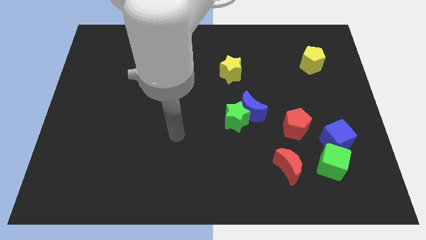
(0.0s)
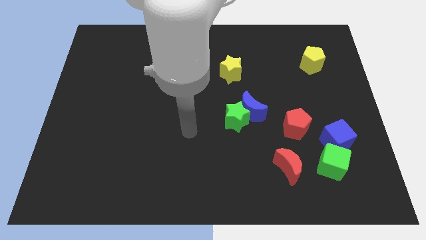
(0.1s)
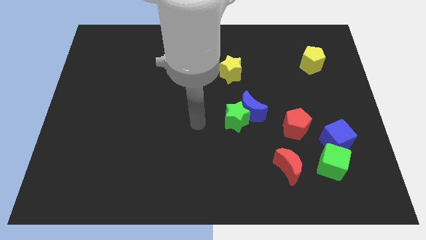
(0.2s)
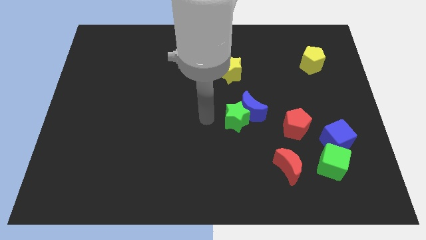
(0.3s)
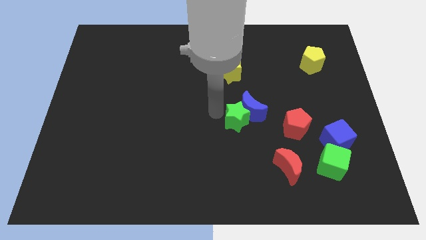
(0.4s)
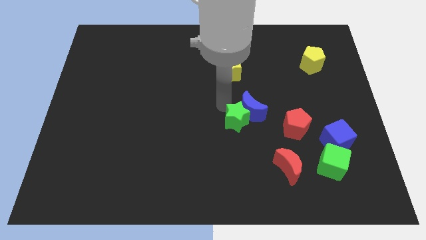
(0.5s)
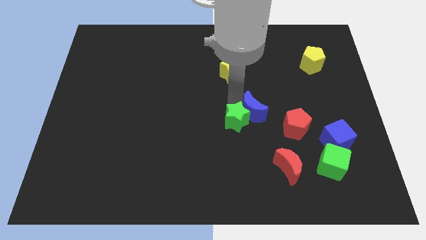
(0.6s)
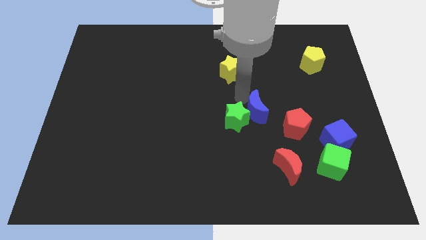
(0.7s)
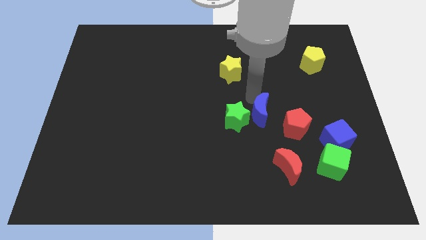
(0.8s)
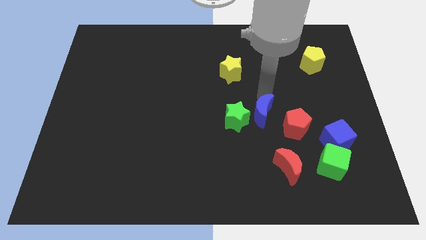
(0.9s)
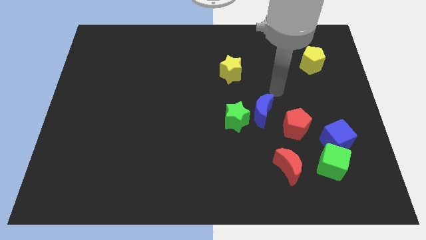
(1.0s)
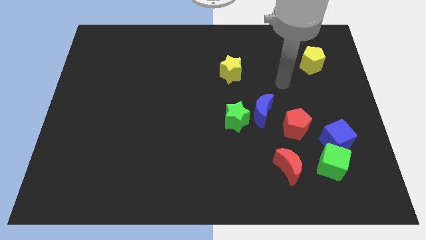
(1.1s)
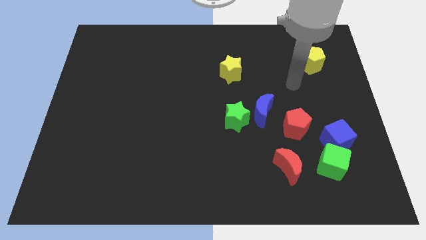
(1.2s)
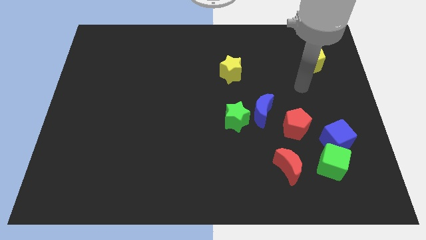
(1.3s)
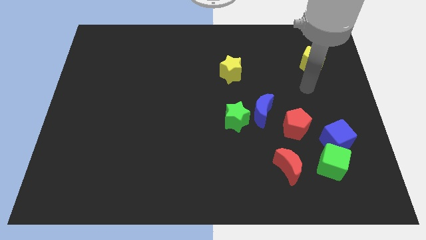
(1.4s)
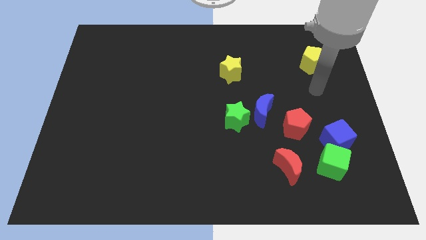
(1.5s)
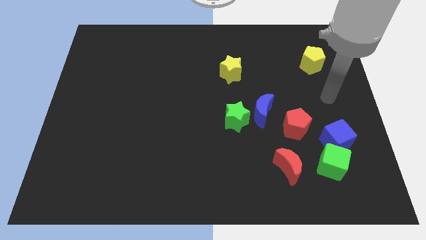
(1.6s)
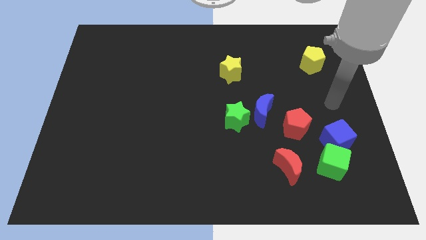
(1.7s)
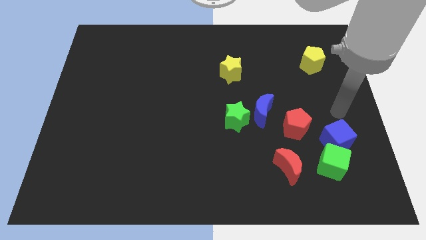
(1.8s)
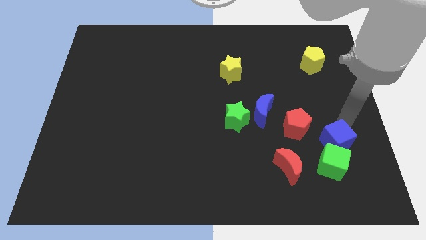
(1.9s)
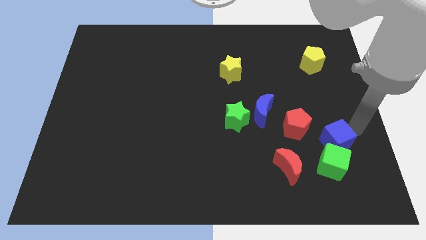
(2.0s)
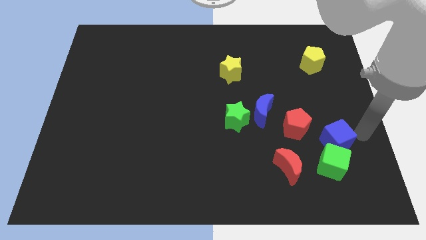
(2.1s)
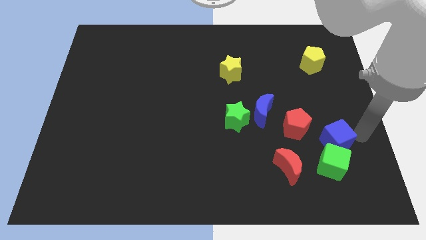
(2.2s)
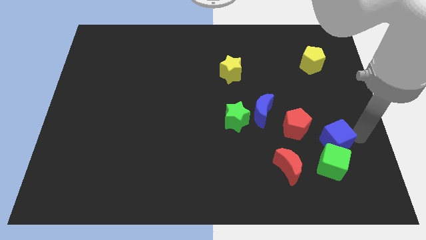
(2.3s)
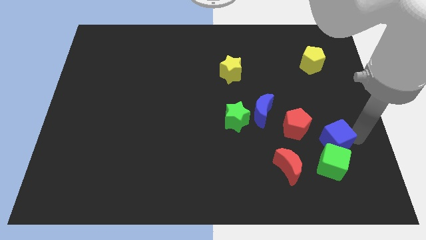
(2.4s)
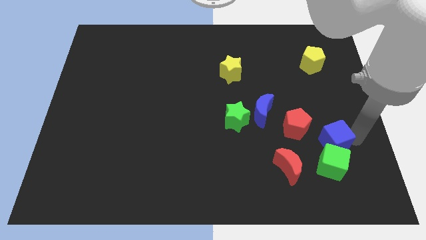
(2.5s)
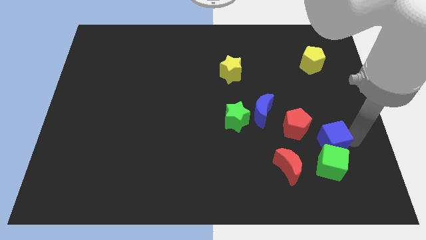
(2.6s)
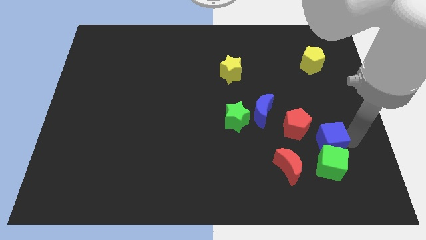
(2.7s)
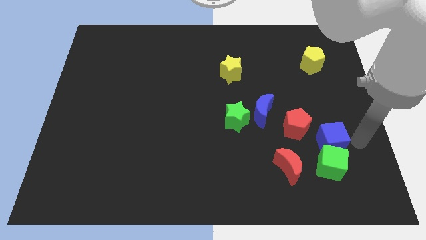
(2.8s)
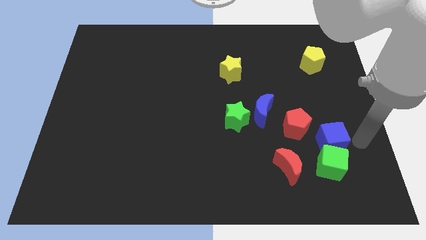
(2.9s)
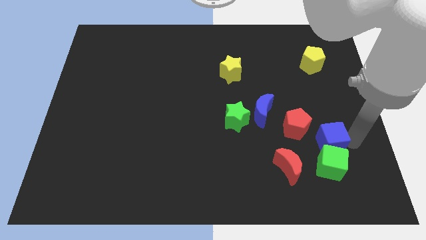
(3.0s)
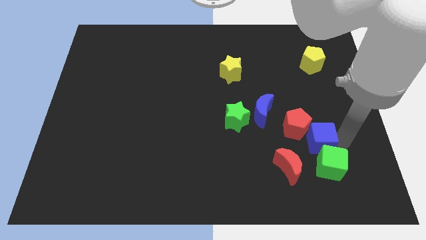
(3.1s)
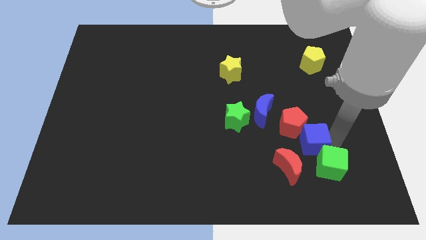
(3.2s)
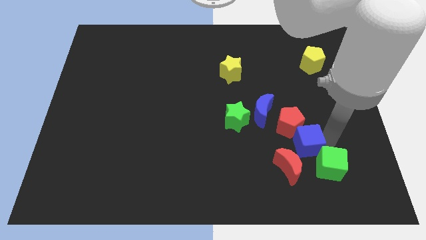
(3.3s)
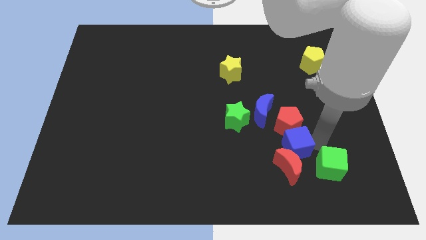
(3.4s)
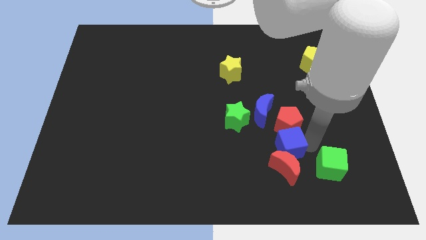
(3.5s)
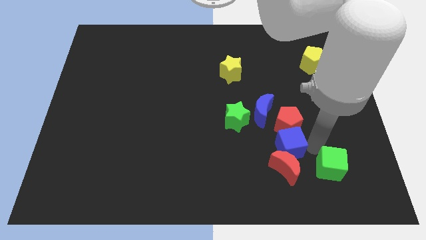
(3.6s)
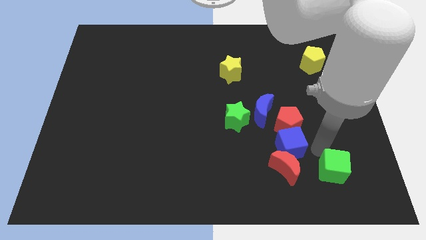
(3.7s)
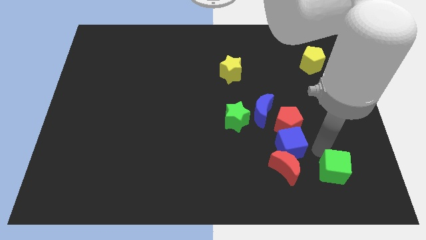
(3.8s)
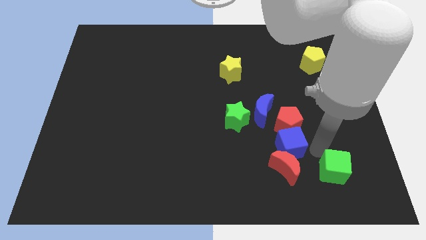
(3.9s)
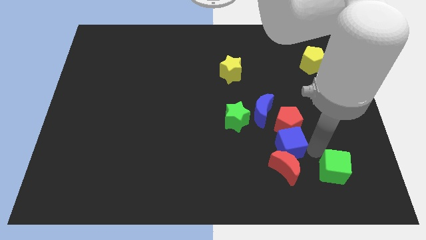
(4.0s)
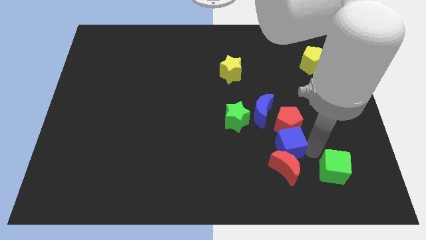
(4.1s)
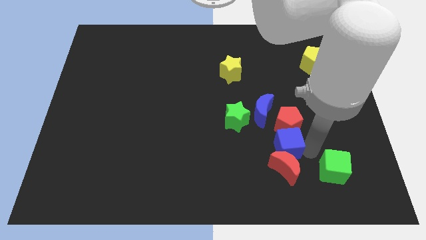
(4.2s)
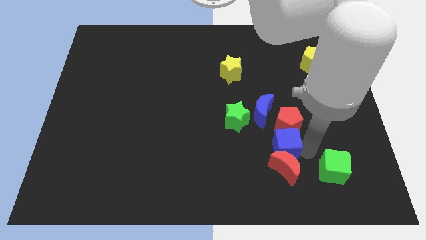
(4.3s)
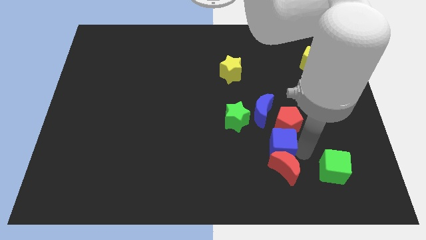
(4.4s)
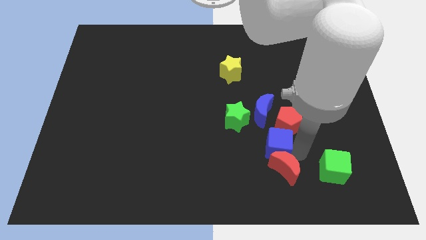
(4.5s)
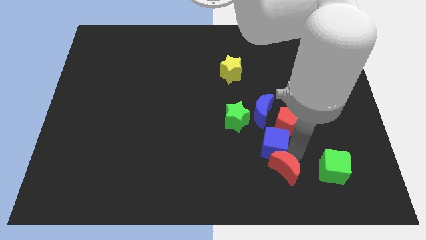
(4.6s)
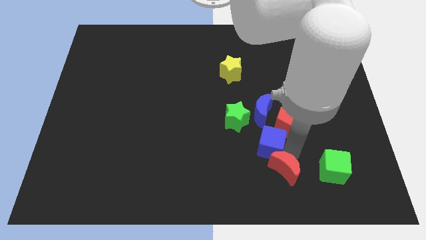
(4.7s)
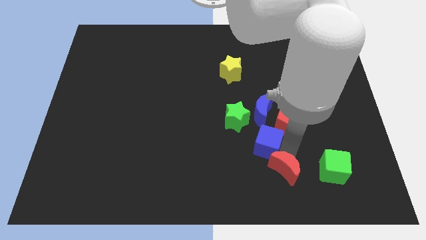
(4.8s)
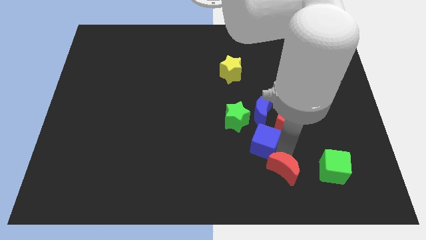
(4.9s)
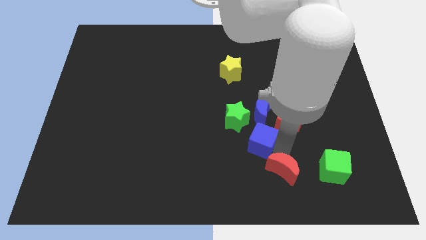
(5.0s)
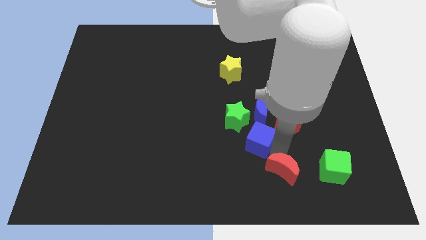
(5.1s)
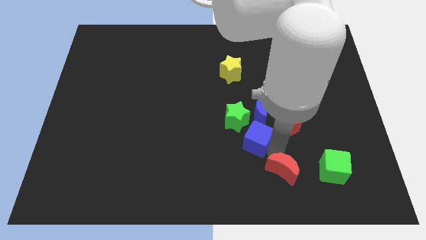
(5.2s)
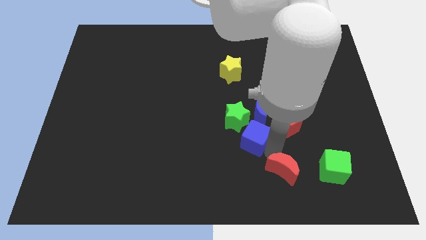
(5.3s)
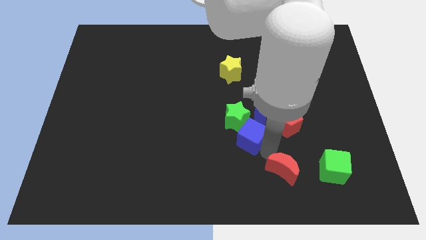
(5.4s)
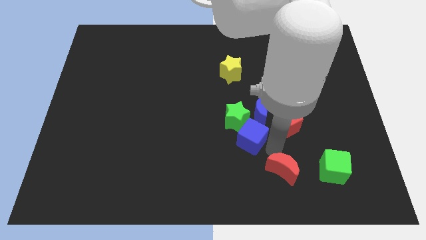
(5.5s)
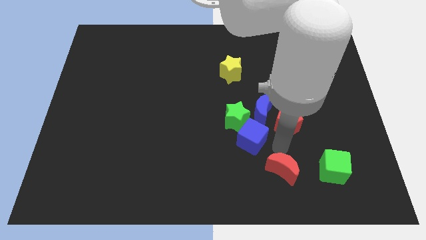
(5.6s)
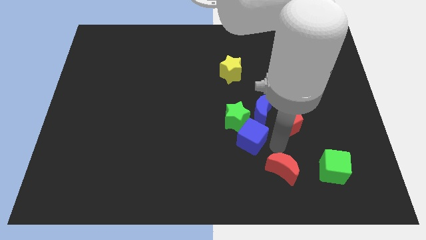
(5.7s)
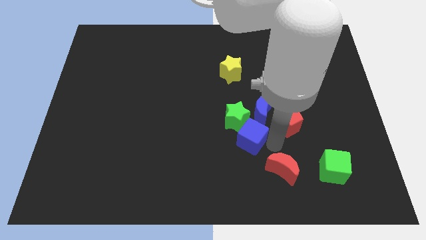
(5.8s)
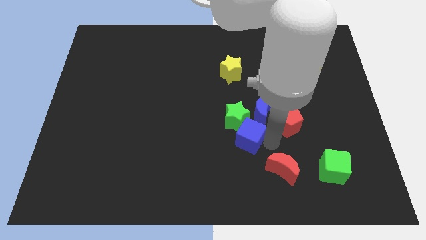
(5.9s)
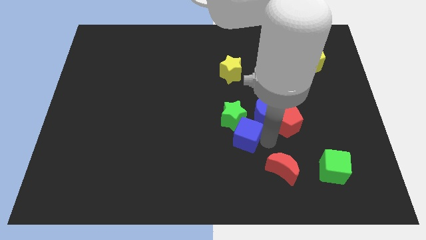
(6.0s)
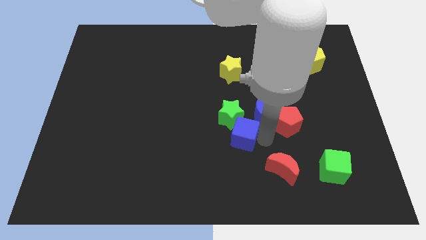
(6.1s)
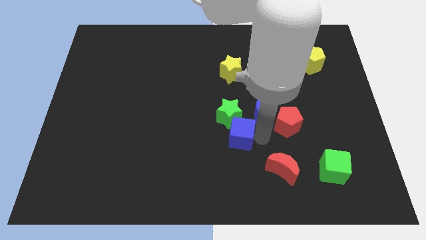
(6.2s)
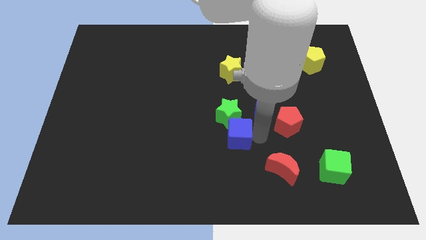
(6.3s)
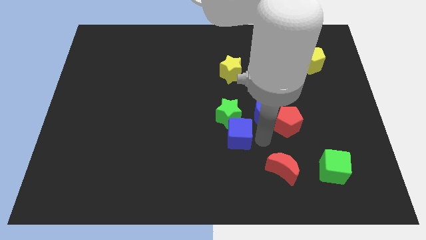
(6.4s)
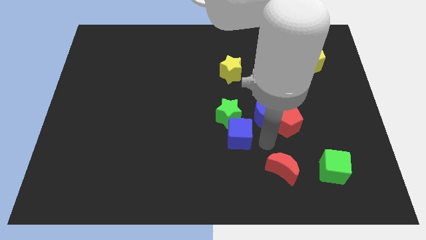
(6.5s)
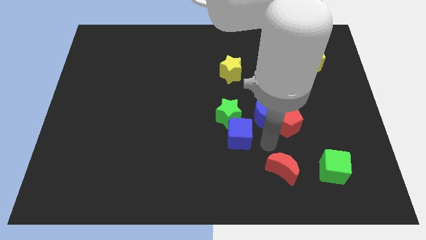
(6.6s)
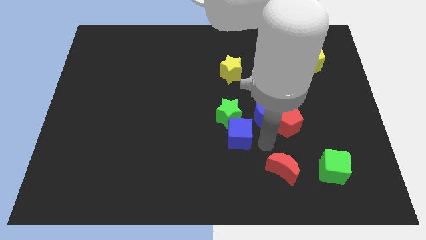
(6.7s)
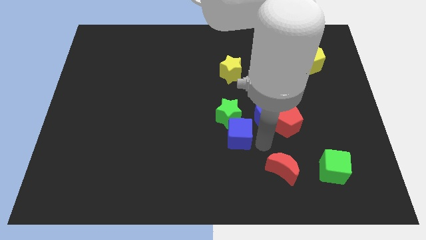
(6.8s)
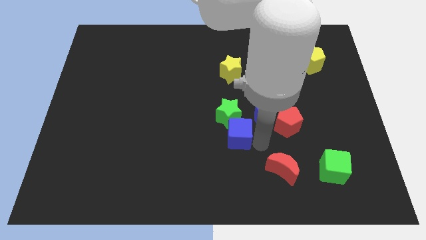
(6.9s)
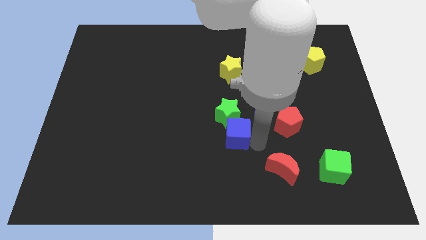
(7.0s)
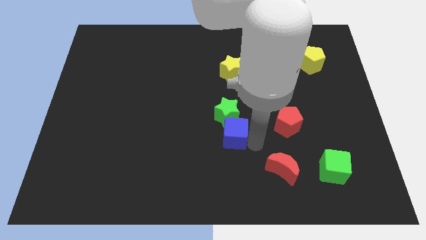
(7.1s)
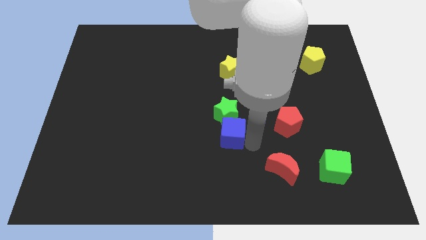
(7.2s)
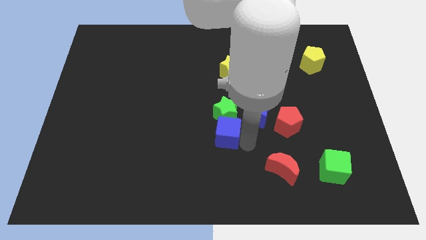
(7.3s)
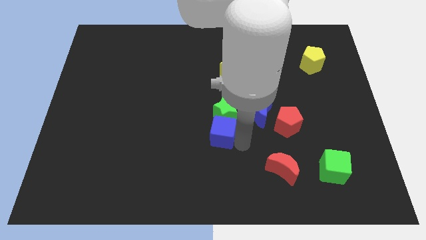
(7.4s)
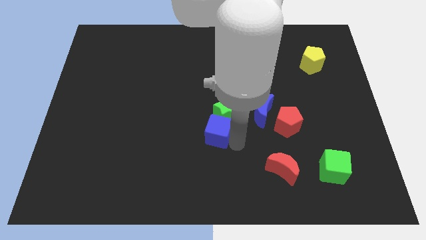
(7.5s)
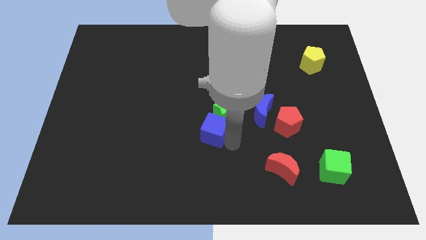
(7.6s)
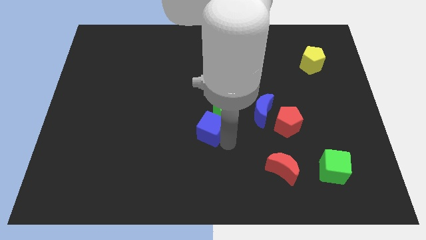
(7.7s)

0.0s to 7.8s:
move the blue cube just left of the green star

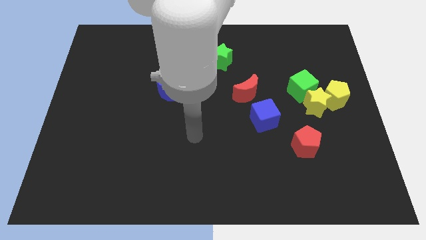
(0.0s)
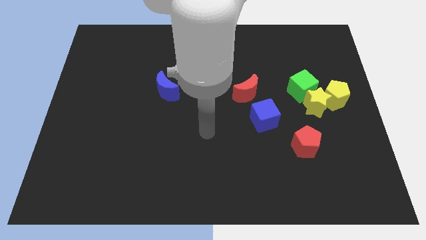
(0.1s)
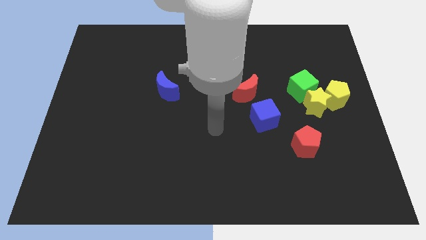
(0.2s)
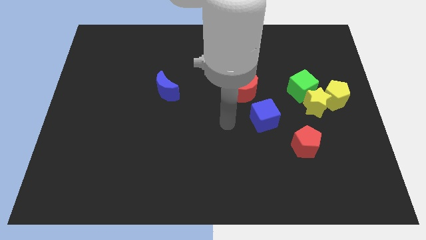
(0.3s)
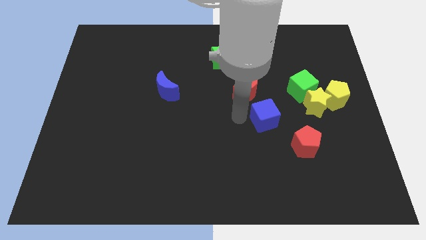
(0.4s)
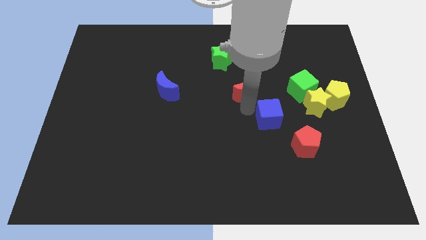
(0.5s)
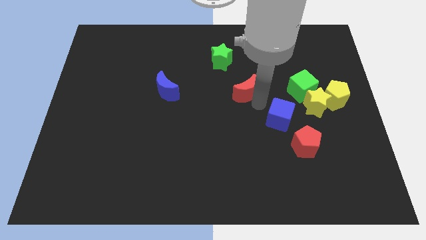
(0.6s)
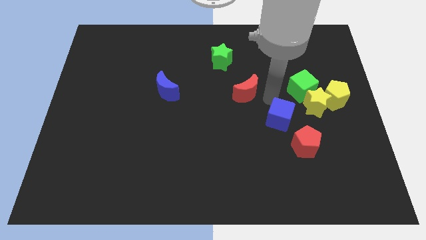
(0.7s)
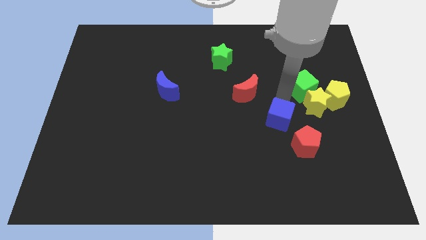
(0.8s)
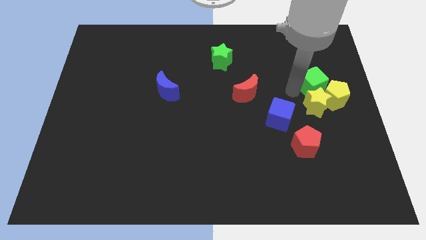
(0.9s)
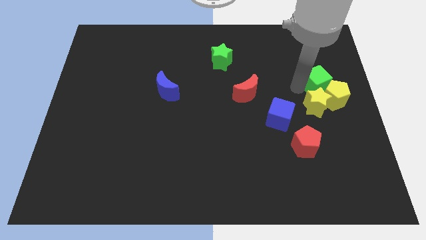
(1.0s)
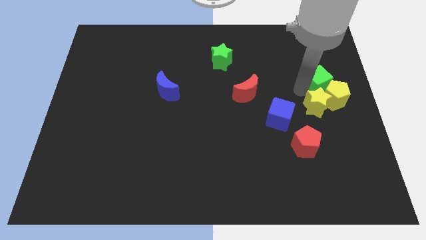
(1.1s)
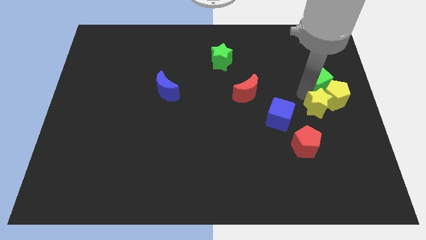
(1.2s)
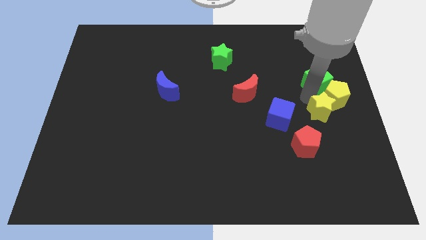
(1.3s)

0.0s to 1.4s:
move the yellow star below the yellow pentagon
